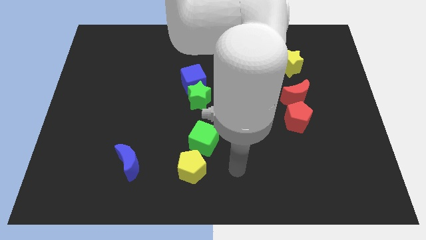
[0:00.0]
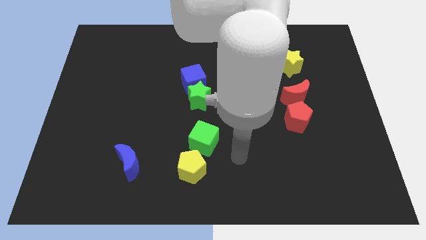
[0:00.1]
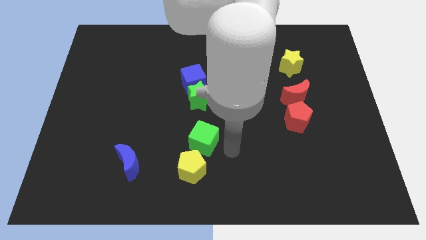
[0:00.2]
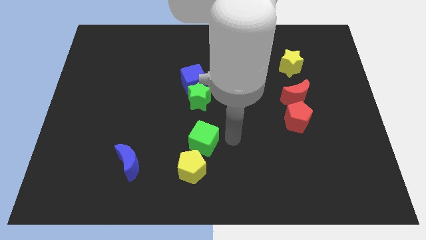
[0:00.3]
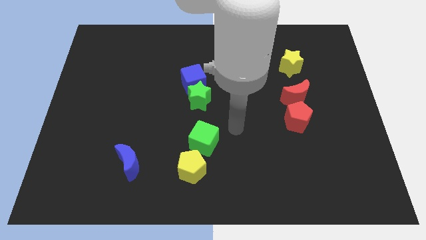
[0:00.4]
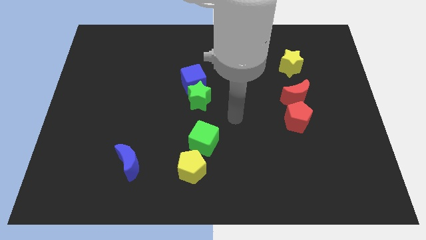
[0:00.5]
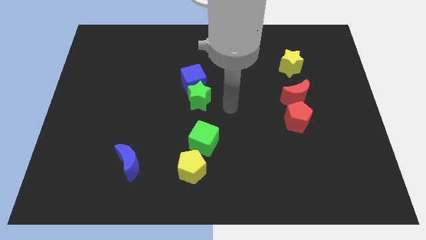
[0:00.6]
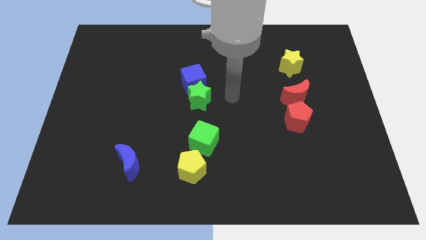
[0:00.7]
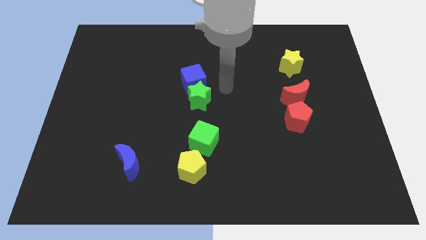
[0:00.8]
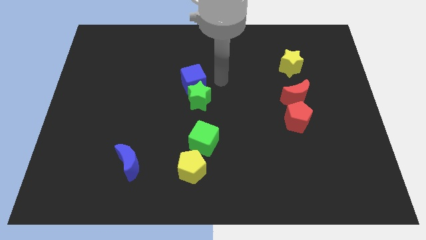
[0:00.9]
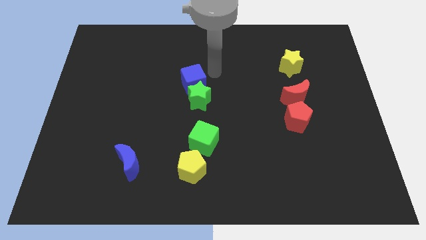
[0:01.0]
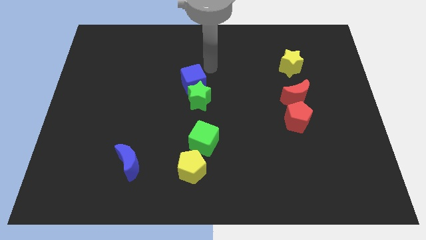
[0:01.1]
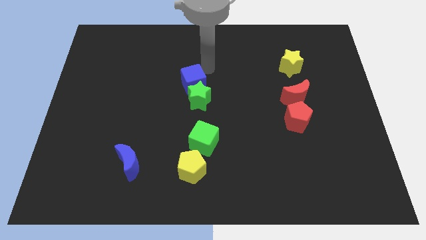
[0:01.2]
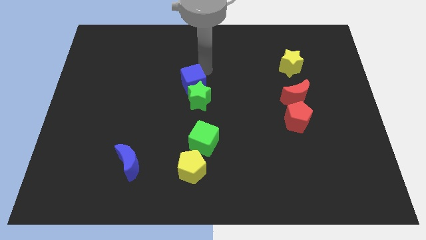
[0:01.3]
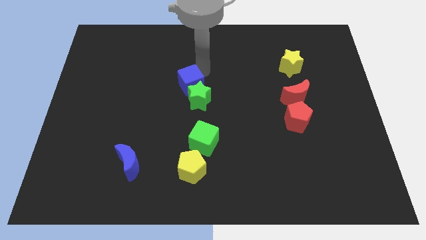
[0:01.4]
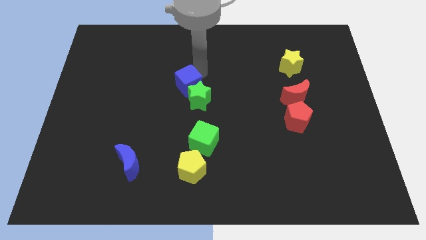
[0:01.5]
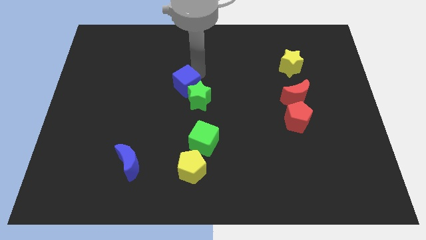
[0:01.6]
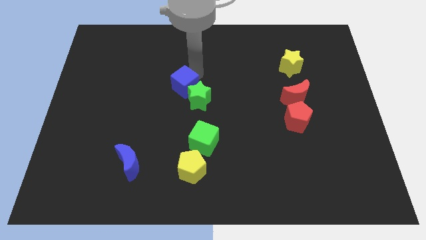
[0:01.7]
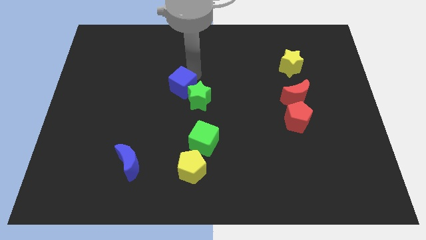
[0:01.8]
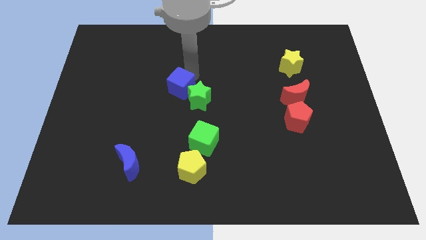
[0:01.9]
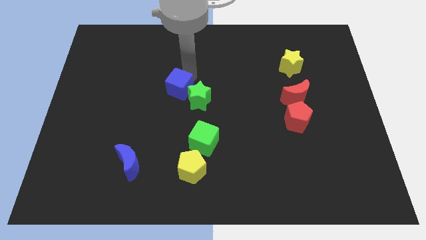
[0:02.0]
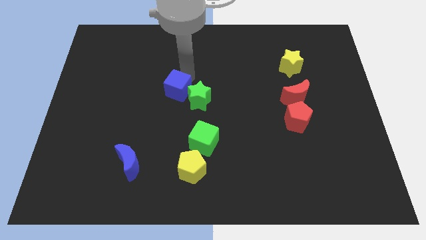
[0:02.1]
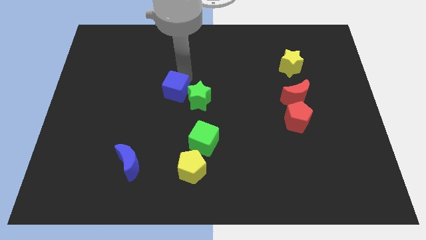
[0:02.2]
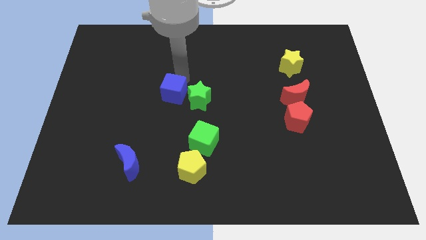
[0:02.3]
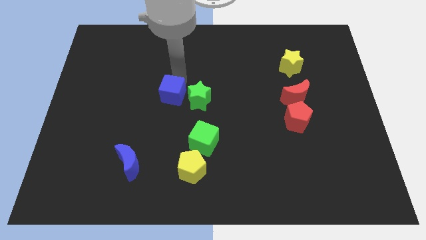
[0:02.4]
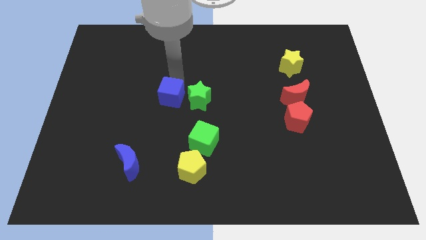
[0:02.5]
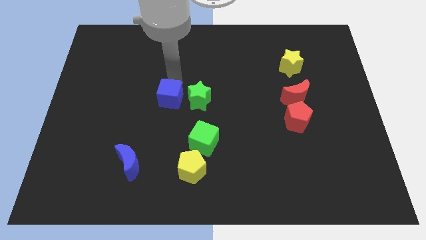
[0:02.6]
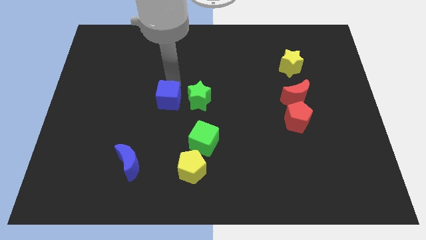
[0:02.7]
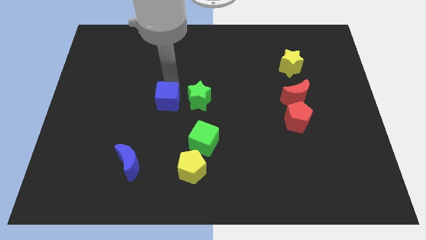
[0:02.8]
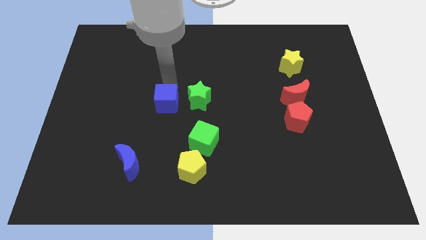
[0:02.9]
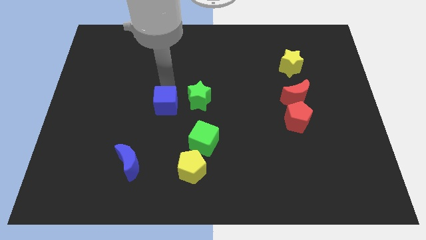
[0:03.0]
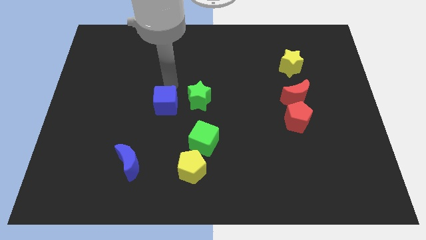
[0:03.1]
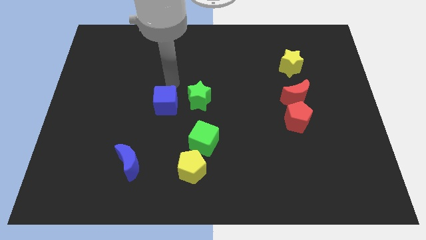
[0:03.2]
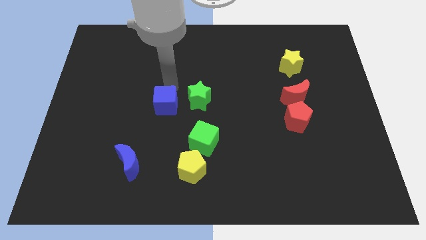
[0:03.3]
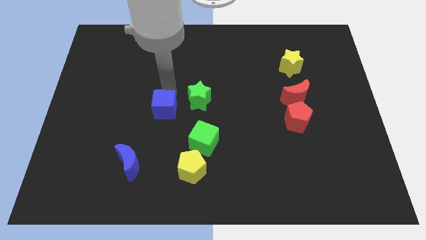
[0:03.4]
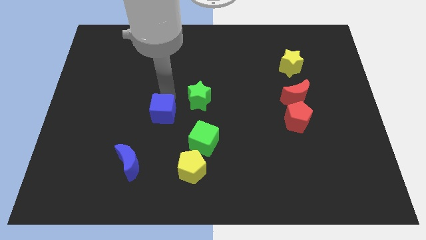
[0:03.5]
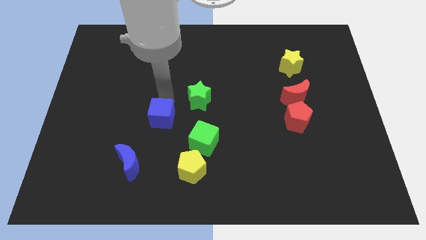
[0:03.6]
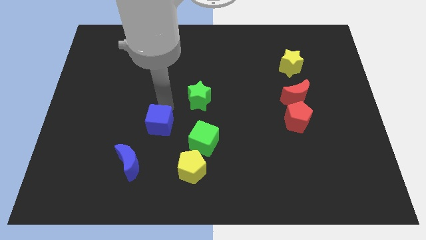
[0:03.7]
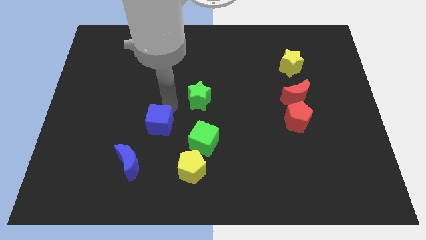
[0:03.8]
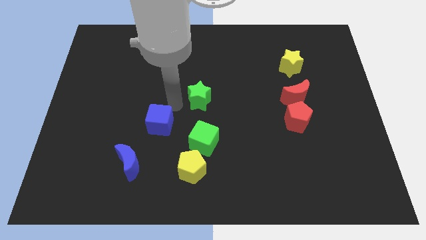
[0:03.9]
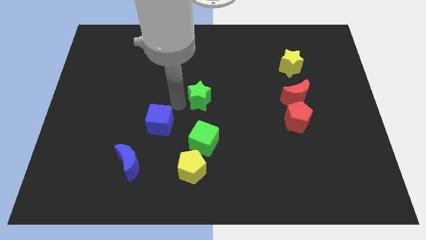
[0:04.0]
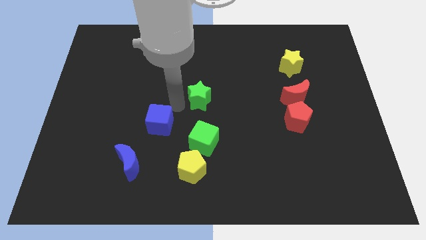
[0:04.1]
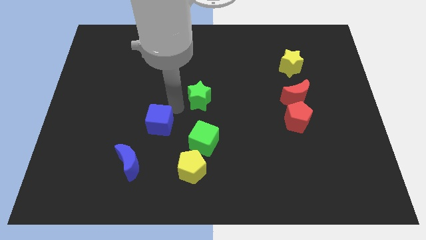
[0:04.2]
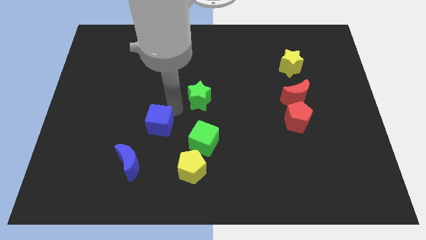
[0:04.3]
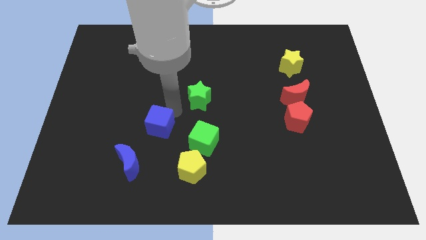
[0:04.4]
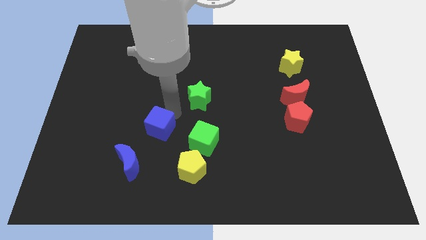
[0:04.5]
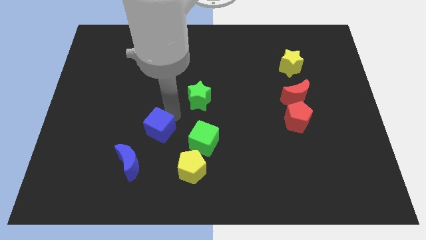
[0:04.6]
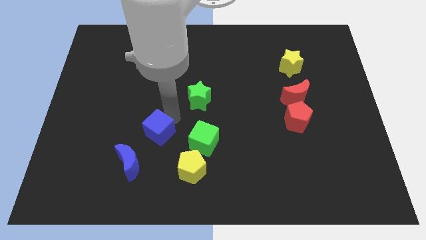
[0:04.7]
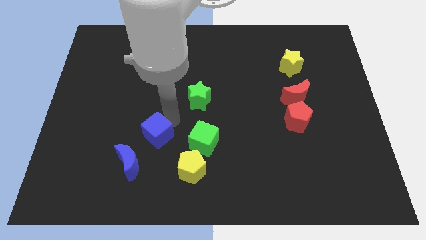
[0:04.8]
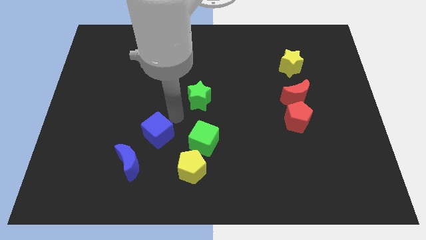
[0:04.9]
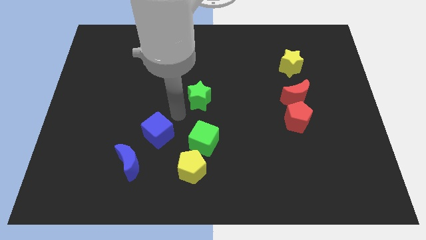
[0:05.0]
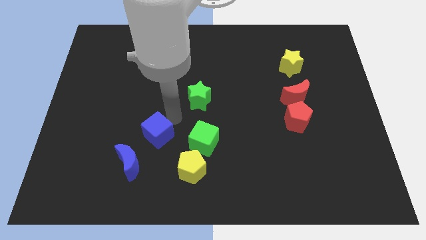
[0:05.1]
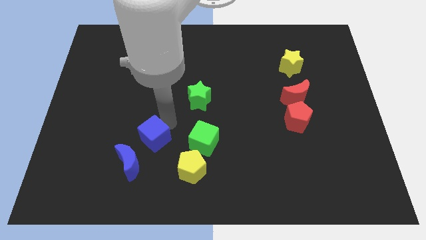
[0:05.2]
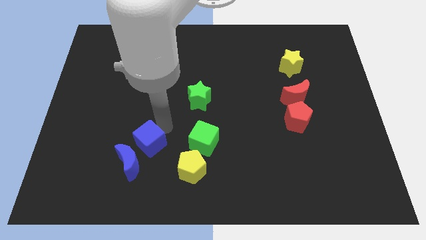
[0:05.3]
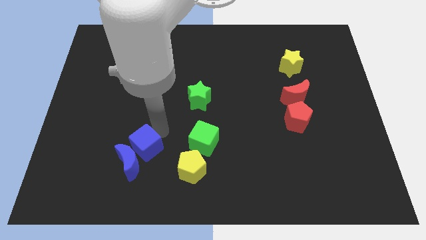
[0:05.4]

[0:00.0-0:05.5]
move the blue cube close to the blue moon

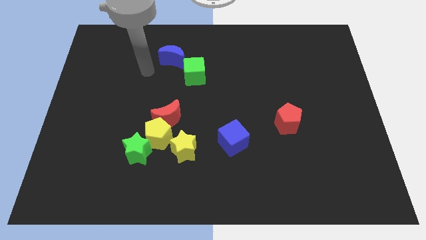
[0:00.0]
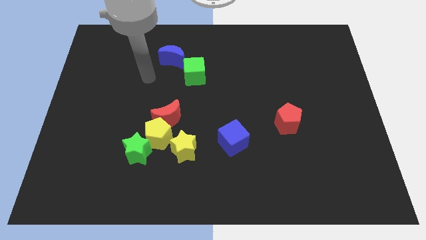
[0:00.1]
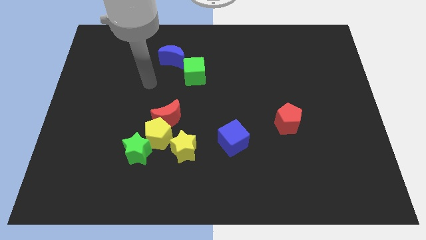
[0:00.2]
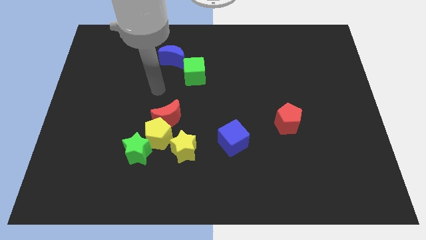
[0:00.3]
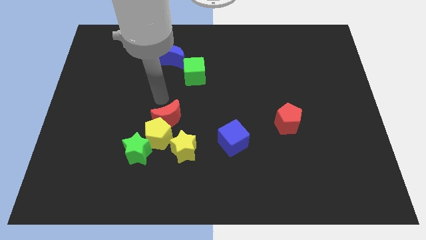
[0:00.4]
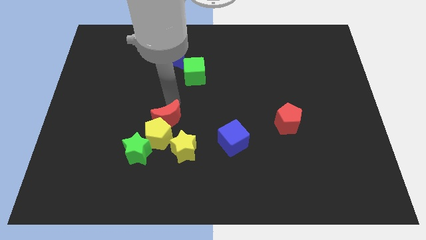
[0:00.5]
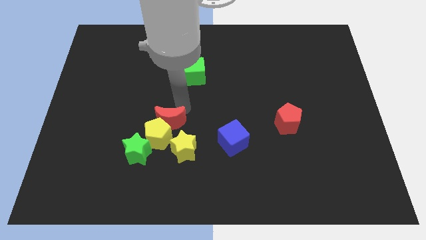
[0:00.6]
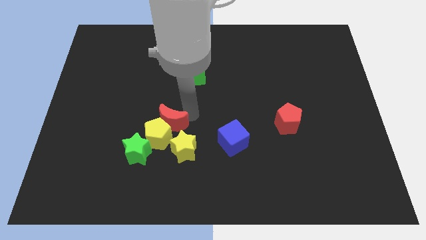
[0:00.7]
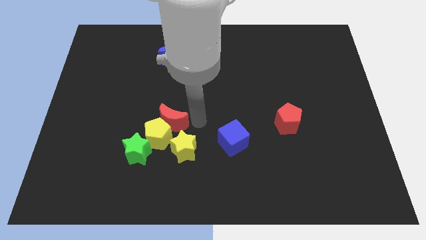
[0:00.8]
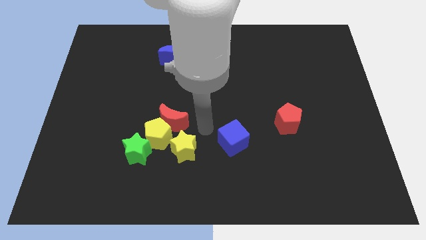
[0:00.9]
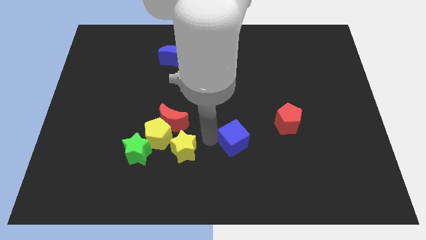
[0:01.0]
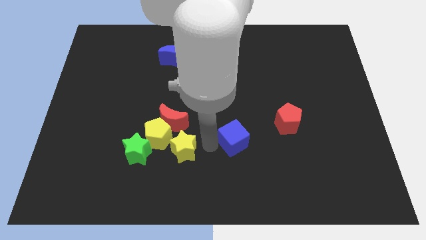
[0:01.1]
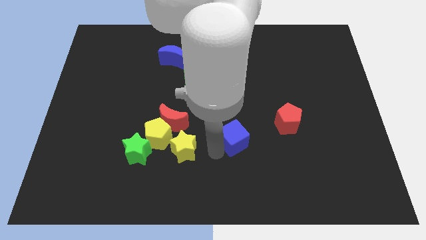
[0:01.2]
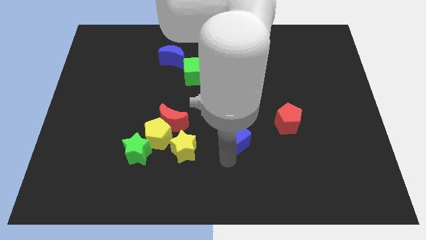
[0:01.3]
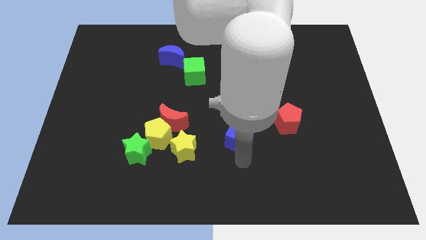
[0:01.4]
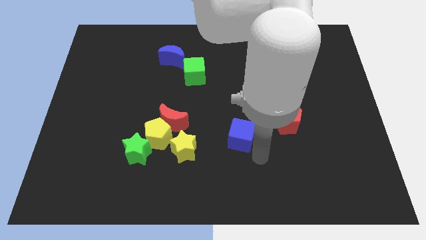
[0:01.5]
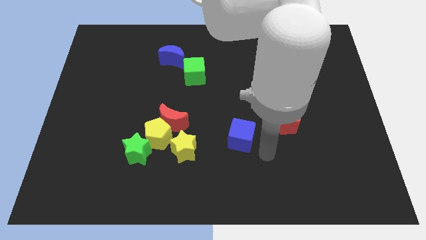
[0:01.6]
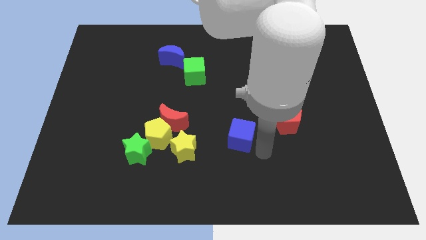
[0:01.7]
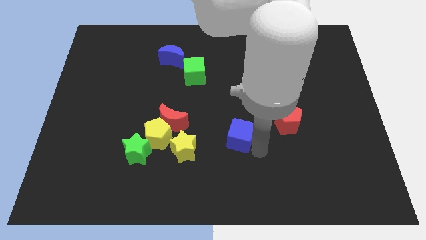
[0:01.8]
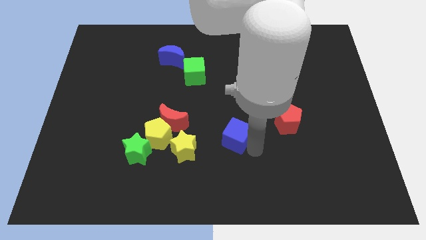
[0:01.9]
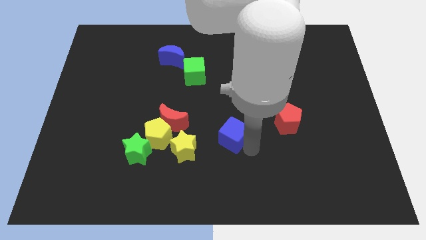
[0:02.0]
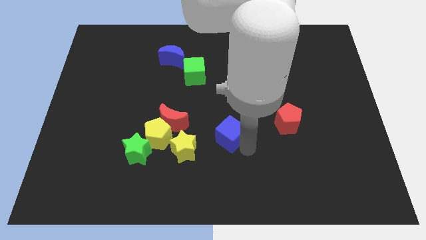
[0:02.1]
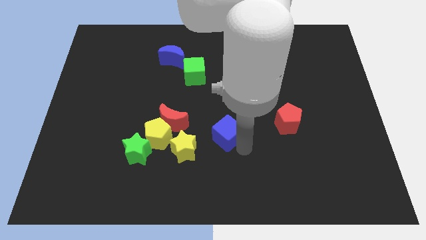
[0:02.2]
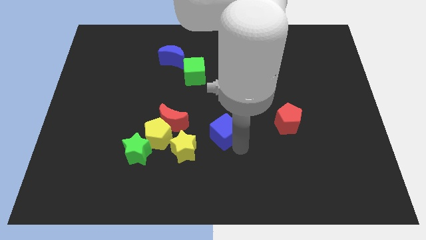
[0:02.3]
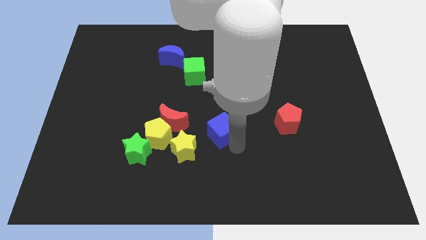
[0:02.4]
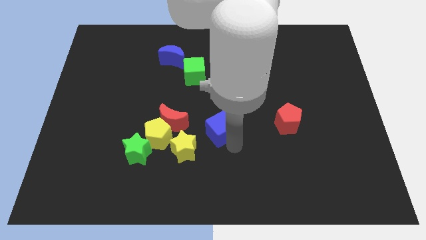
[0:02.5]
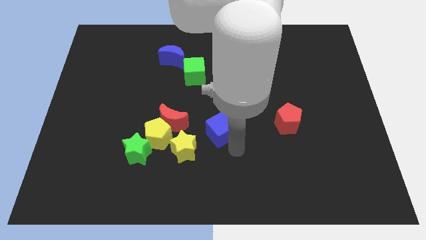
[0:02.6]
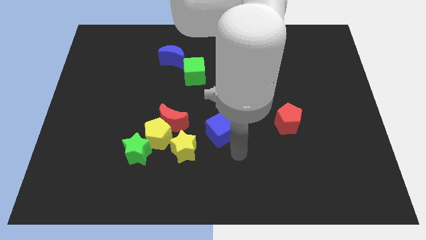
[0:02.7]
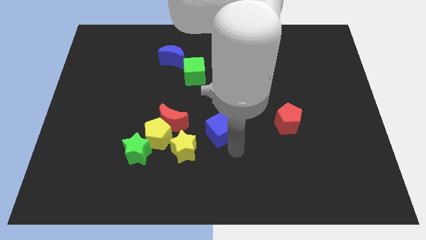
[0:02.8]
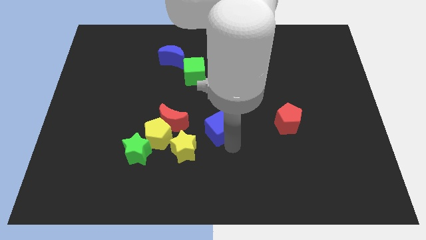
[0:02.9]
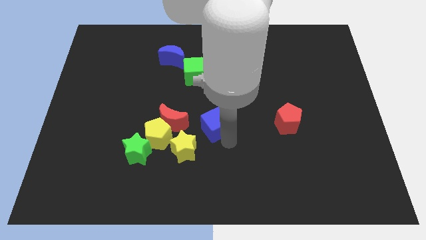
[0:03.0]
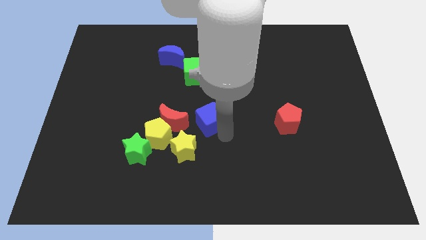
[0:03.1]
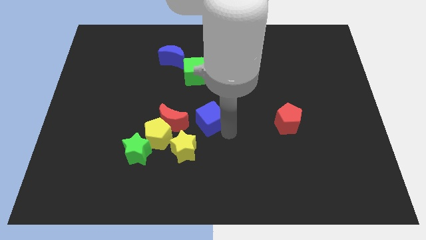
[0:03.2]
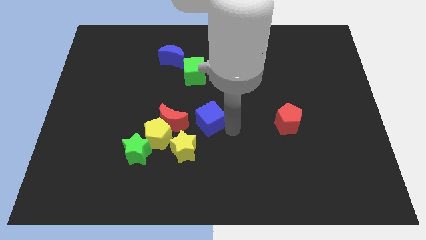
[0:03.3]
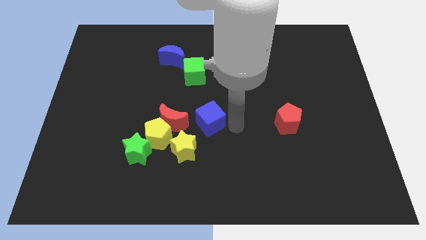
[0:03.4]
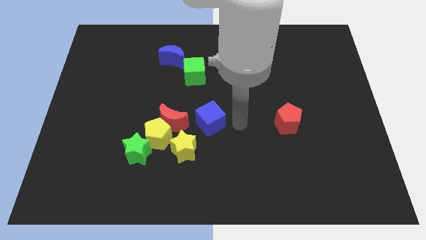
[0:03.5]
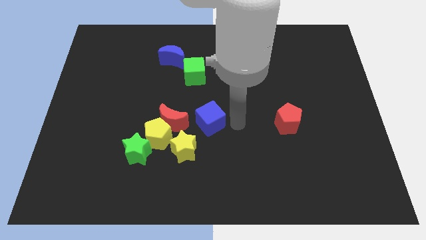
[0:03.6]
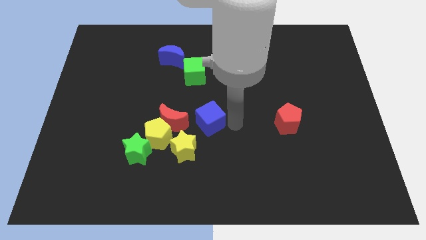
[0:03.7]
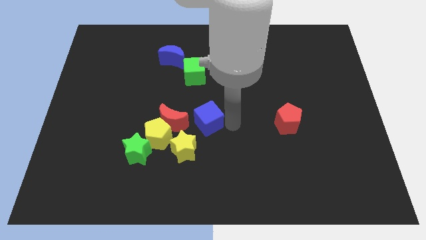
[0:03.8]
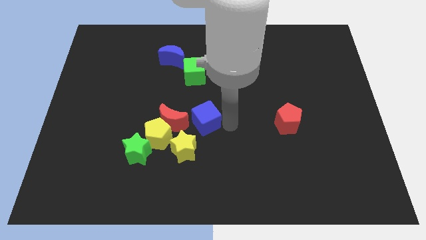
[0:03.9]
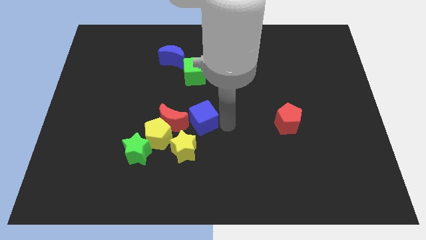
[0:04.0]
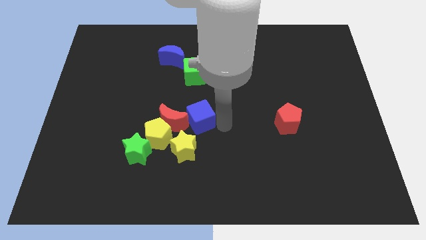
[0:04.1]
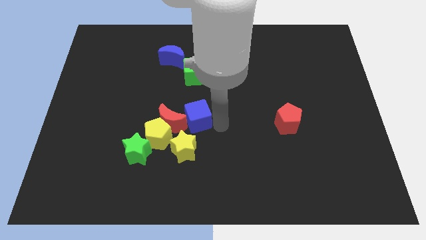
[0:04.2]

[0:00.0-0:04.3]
move the blue cube close to the red moon
